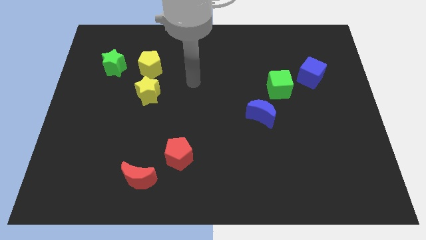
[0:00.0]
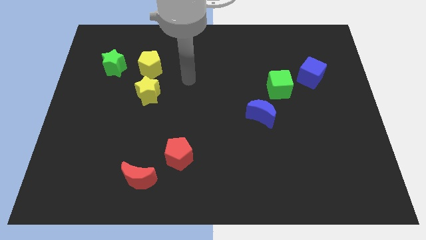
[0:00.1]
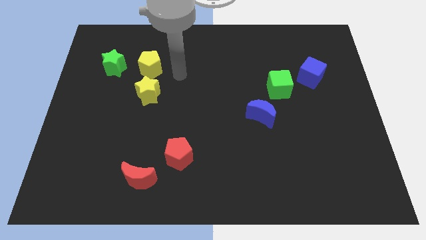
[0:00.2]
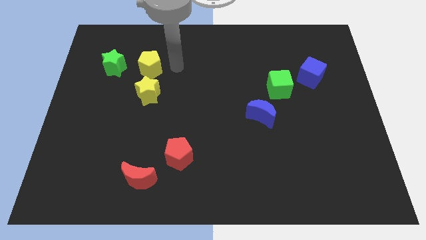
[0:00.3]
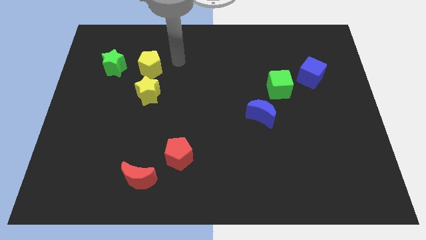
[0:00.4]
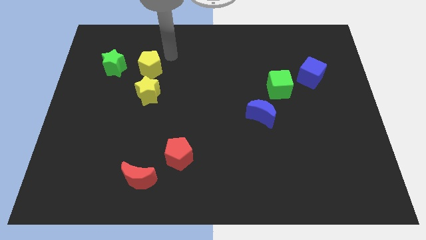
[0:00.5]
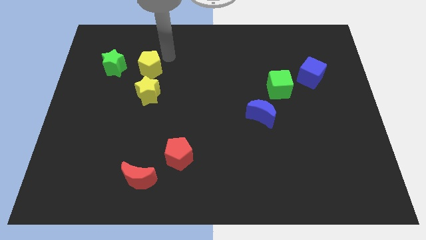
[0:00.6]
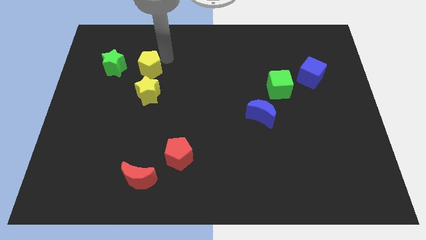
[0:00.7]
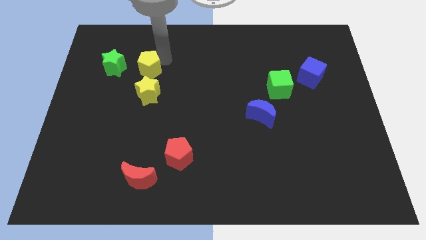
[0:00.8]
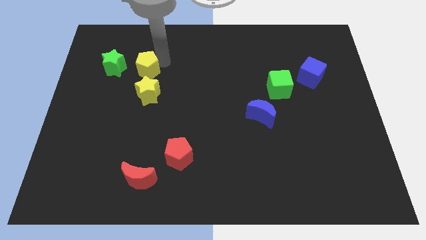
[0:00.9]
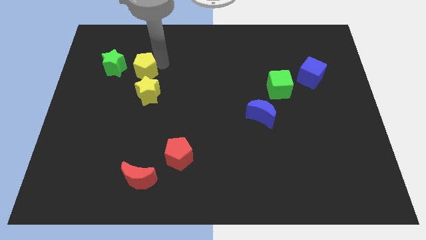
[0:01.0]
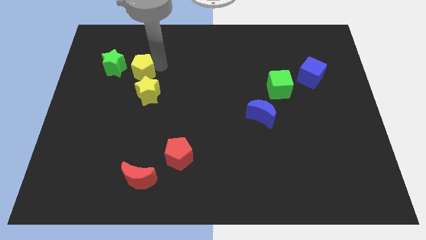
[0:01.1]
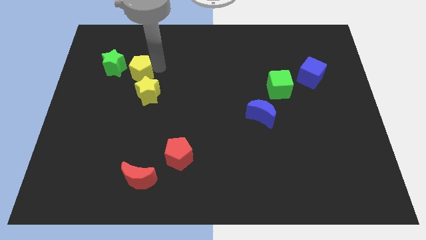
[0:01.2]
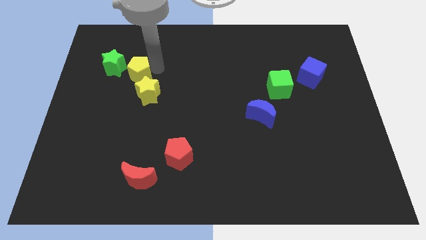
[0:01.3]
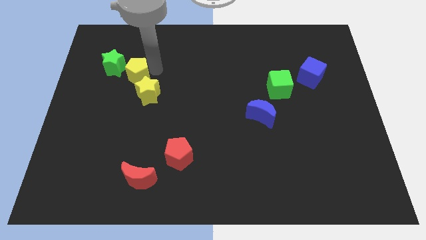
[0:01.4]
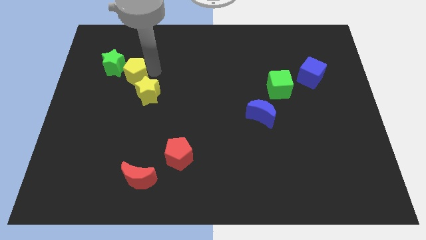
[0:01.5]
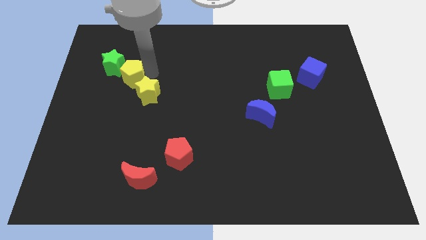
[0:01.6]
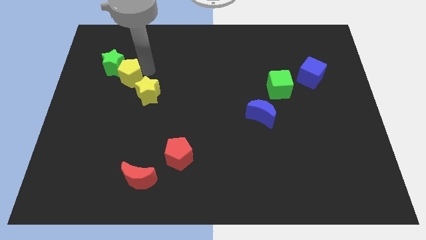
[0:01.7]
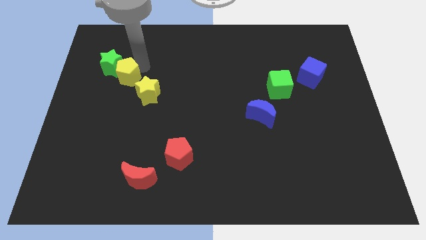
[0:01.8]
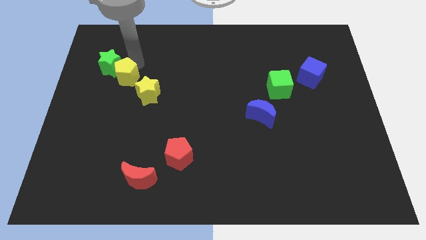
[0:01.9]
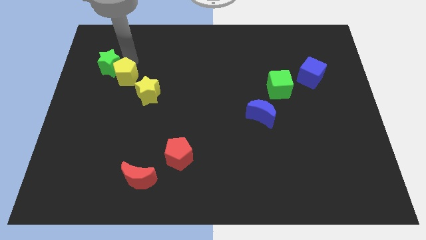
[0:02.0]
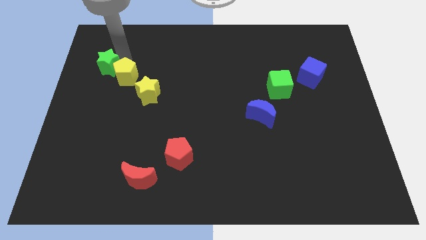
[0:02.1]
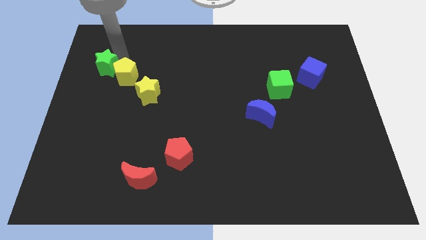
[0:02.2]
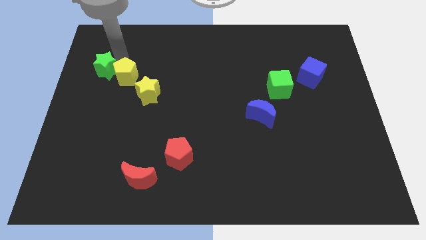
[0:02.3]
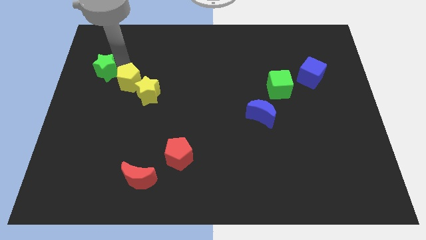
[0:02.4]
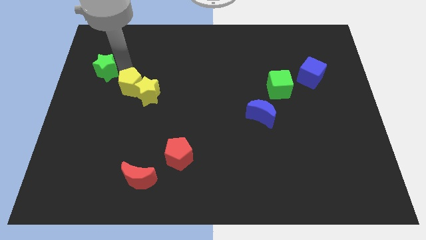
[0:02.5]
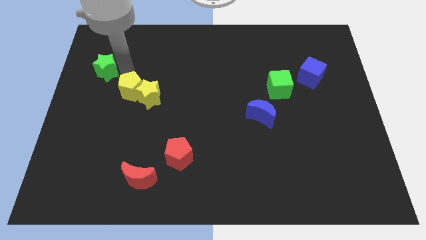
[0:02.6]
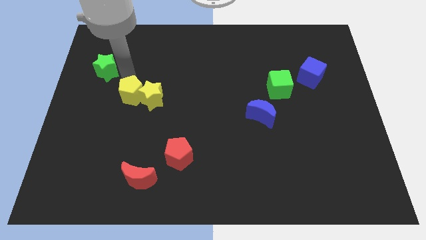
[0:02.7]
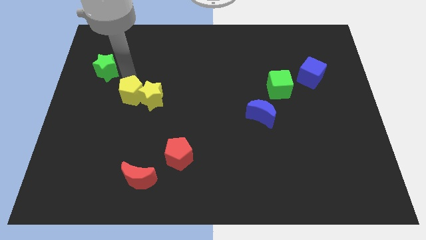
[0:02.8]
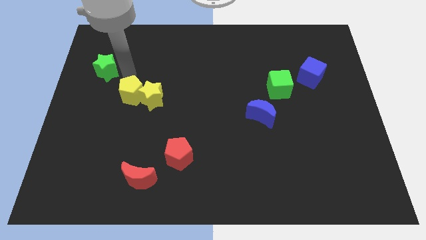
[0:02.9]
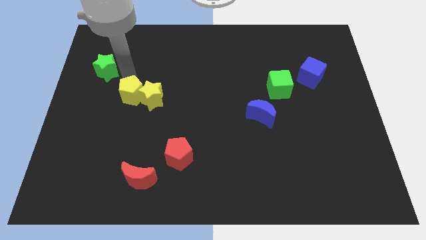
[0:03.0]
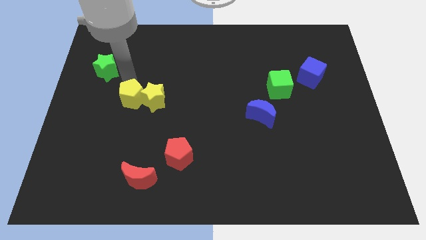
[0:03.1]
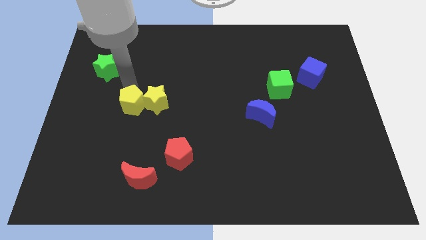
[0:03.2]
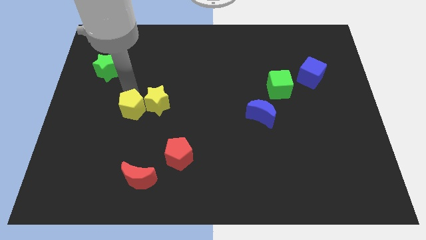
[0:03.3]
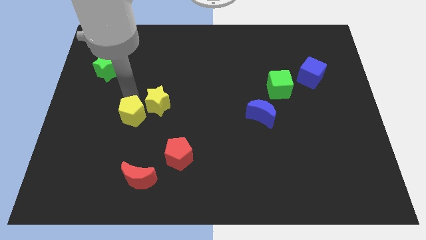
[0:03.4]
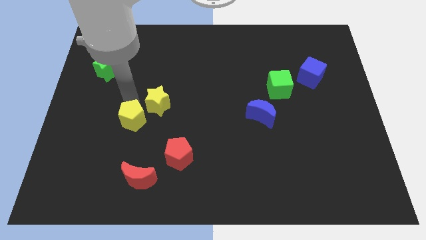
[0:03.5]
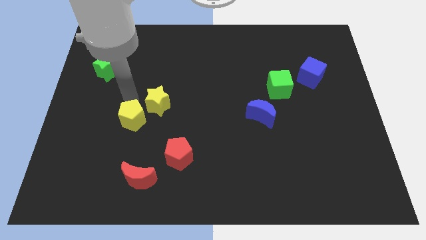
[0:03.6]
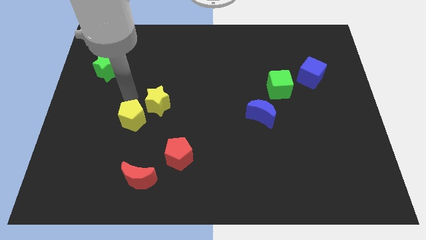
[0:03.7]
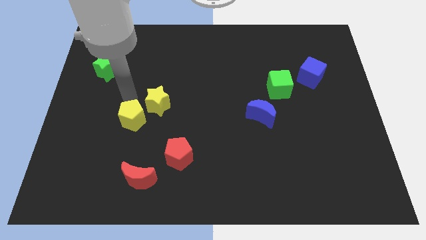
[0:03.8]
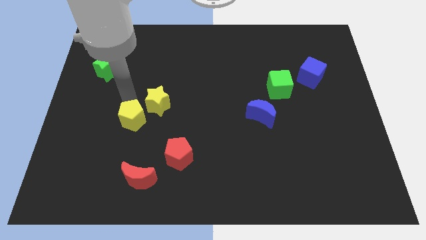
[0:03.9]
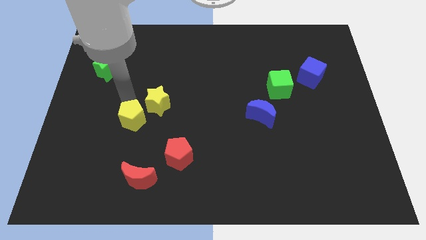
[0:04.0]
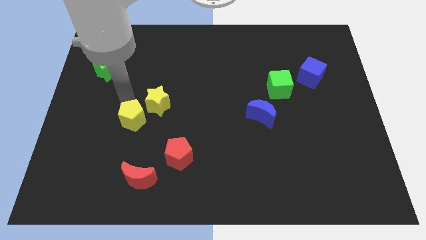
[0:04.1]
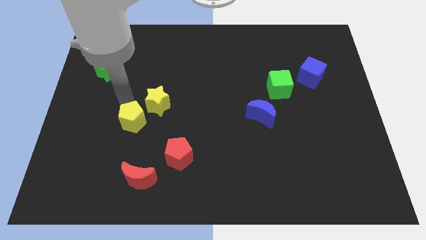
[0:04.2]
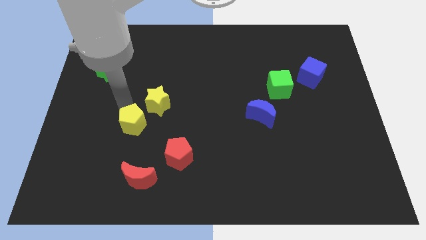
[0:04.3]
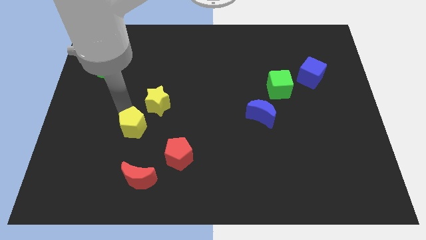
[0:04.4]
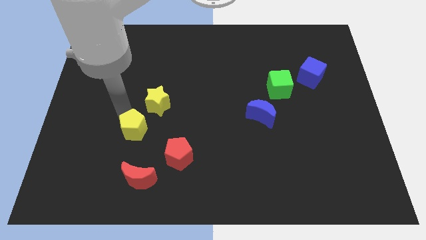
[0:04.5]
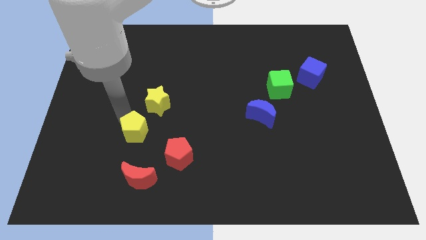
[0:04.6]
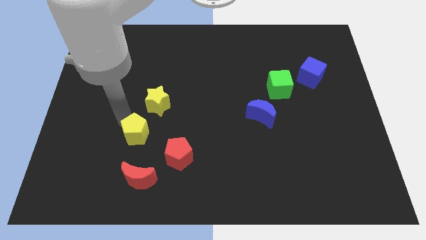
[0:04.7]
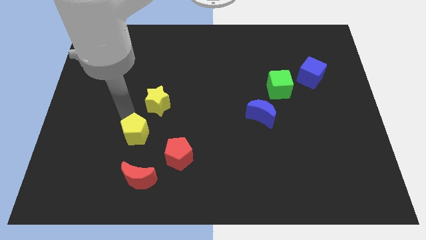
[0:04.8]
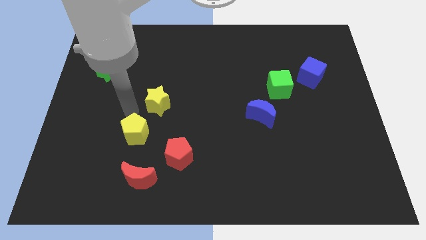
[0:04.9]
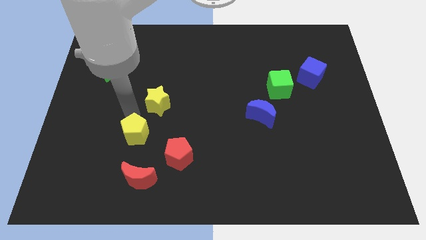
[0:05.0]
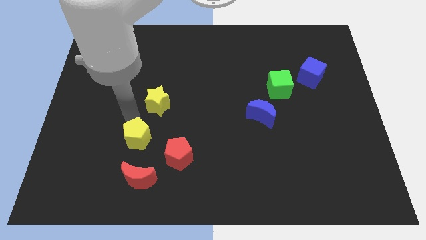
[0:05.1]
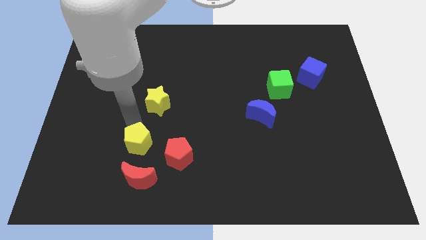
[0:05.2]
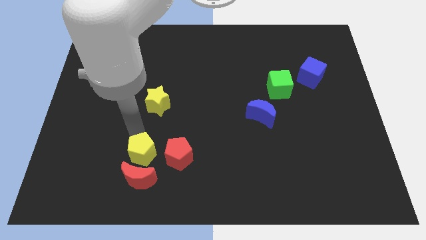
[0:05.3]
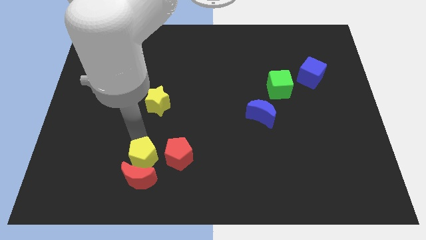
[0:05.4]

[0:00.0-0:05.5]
put the yellow pentagon close to the red moon

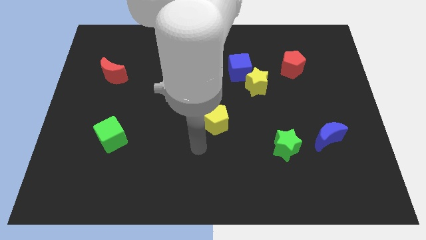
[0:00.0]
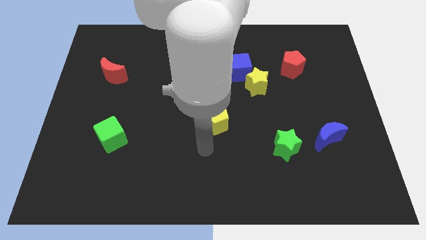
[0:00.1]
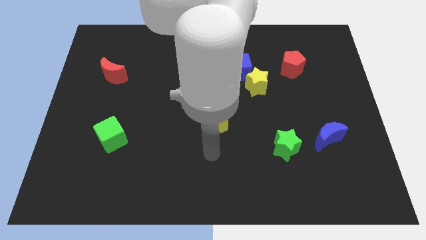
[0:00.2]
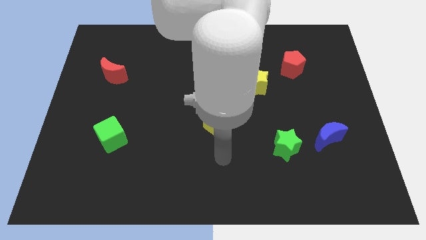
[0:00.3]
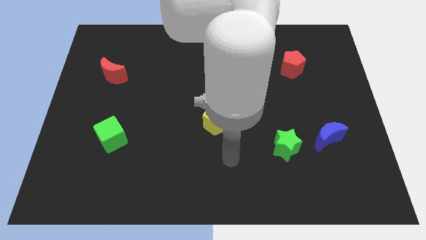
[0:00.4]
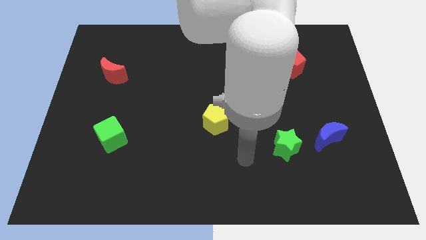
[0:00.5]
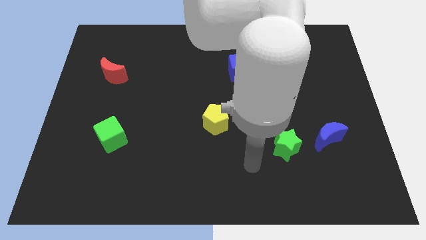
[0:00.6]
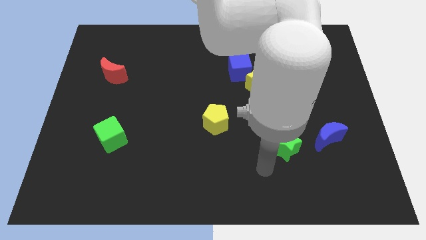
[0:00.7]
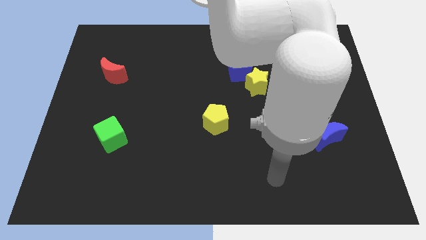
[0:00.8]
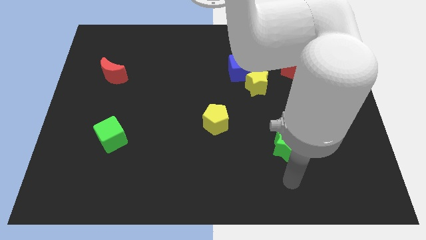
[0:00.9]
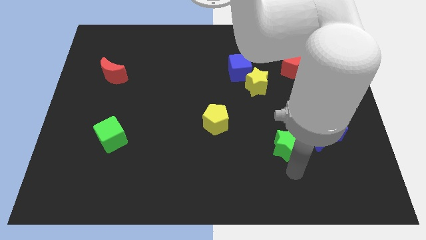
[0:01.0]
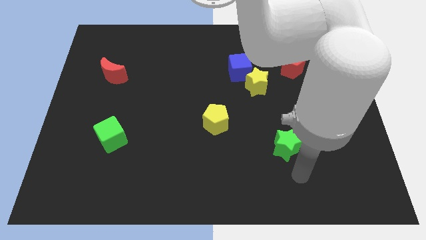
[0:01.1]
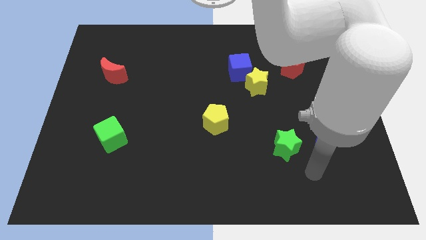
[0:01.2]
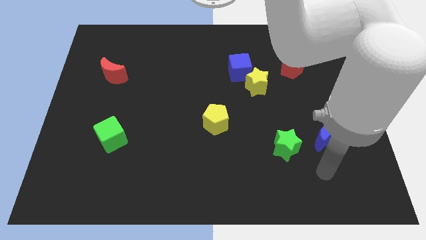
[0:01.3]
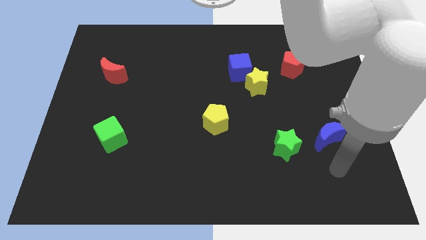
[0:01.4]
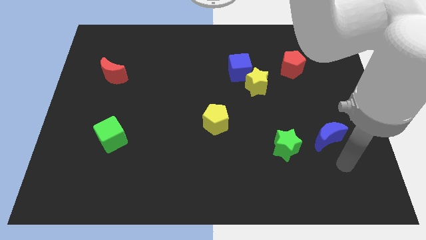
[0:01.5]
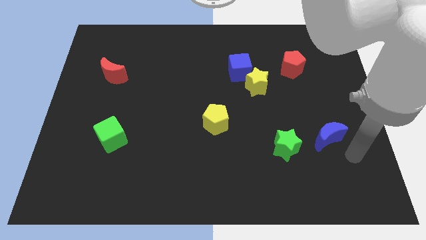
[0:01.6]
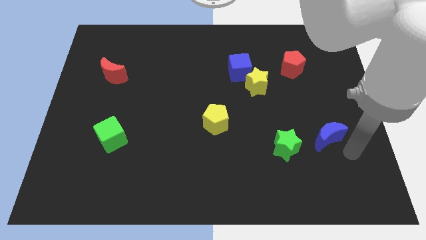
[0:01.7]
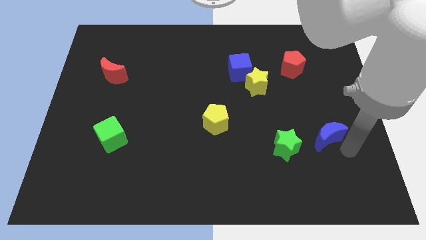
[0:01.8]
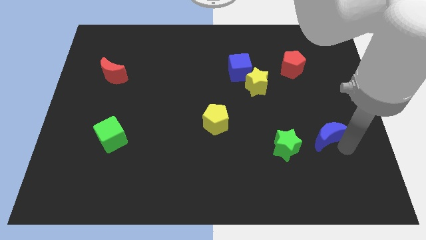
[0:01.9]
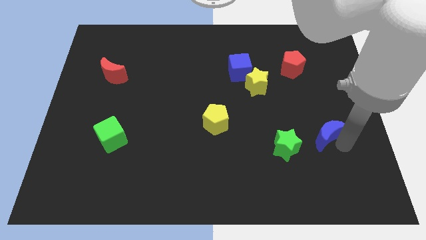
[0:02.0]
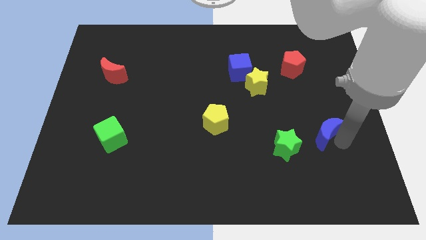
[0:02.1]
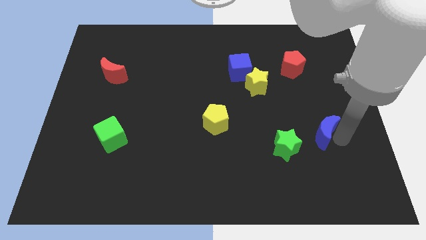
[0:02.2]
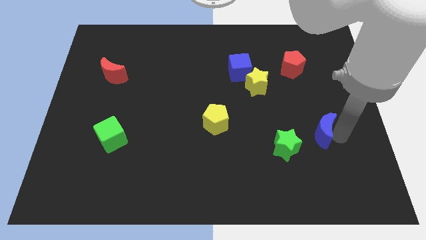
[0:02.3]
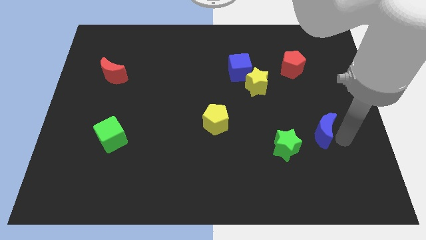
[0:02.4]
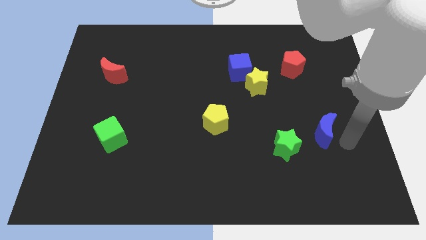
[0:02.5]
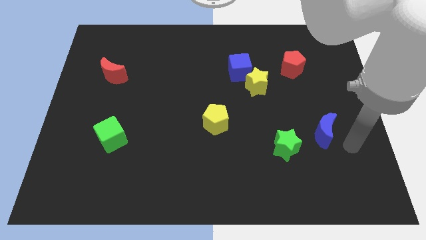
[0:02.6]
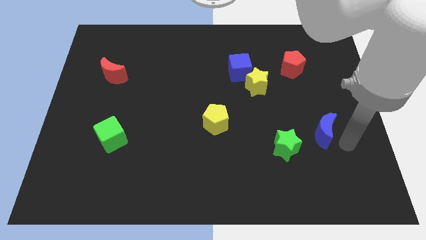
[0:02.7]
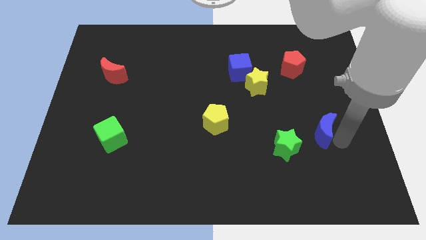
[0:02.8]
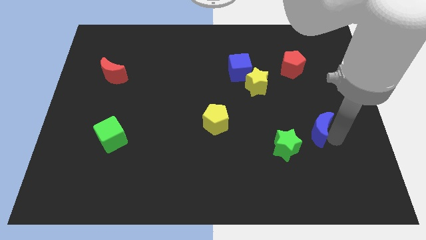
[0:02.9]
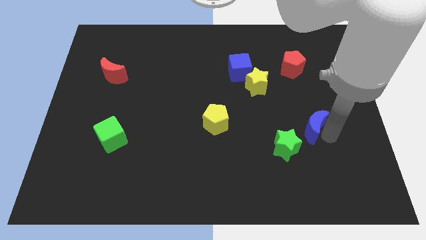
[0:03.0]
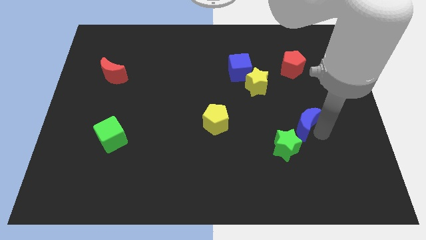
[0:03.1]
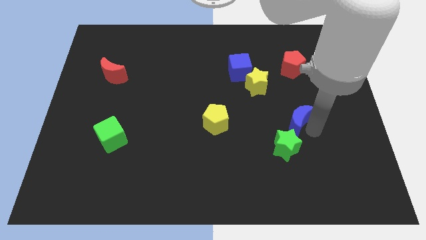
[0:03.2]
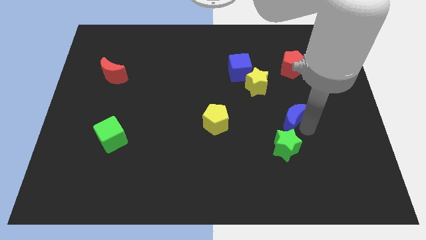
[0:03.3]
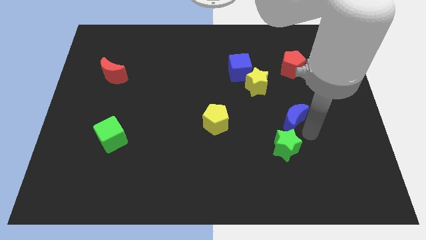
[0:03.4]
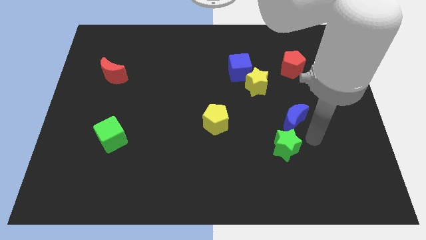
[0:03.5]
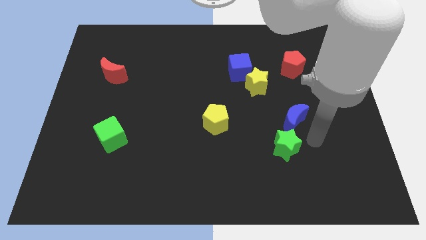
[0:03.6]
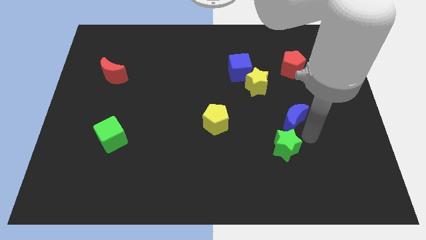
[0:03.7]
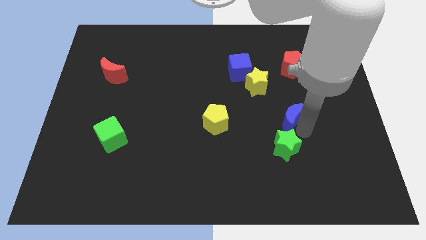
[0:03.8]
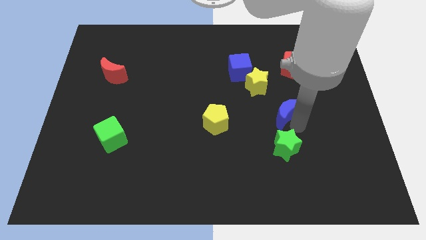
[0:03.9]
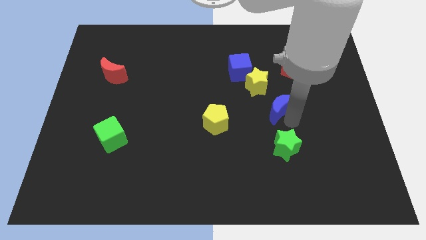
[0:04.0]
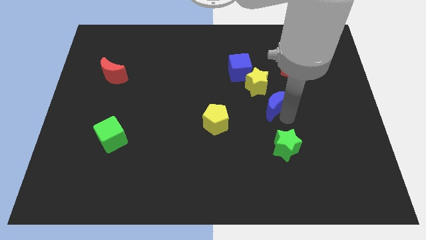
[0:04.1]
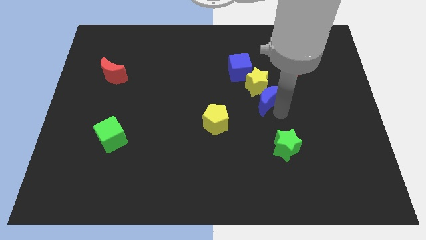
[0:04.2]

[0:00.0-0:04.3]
put the blue moon to the yellow star
